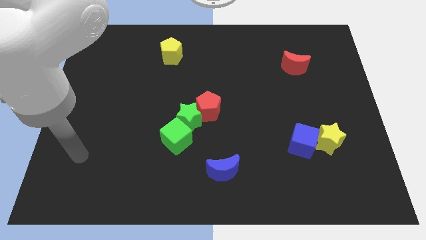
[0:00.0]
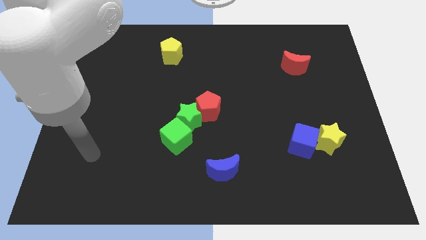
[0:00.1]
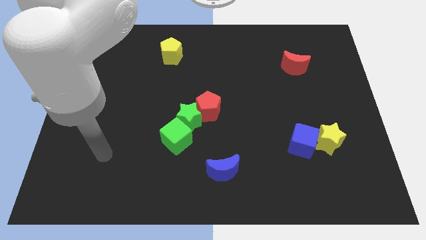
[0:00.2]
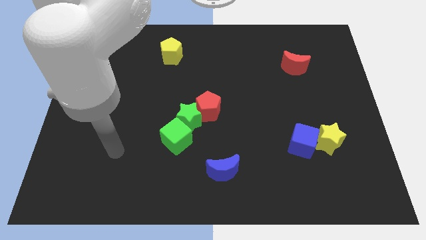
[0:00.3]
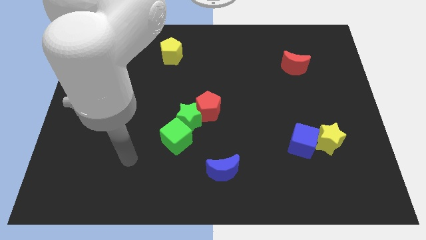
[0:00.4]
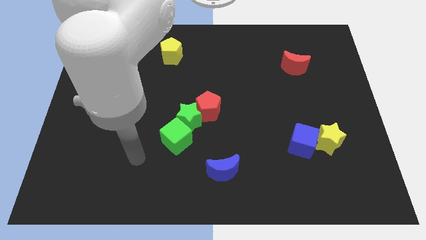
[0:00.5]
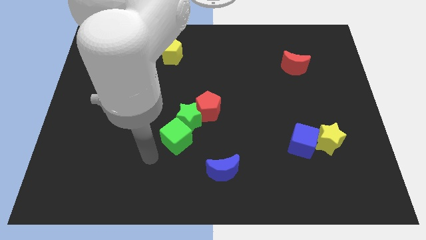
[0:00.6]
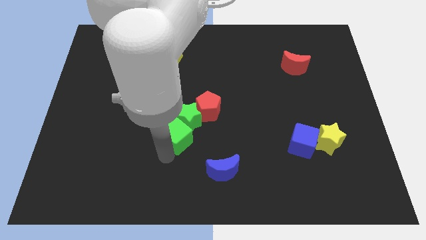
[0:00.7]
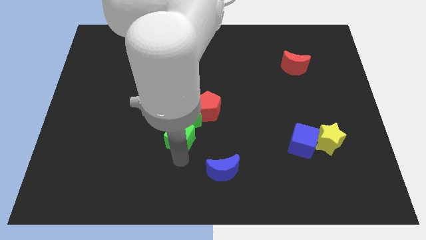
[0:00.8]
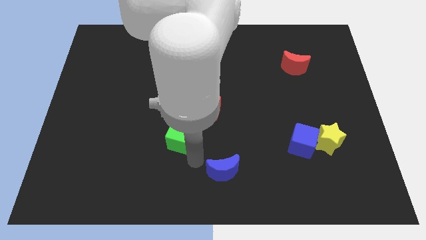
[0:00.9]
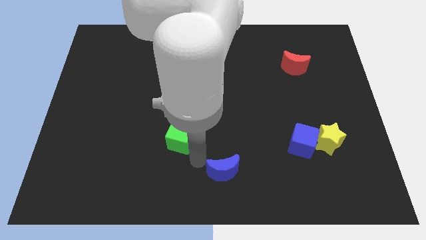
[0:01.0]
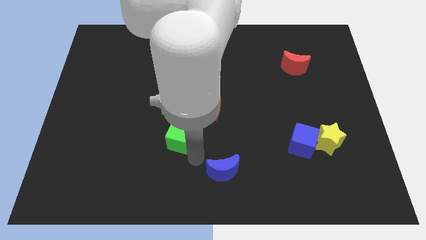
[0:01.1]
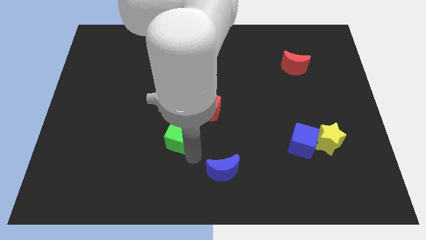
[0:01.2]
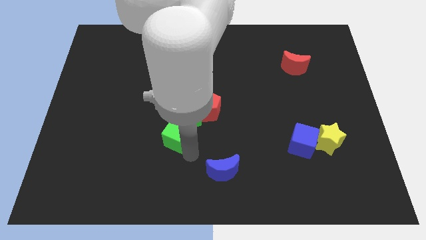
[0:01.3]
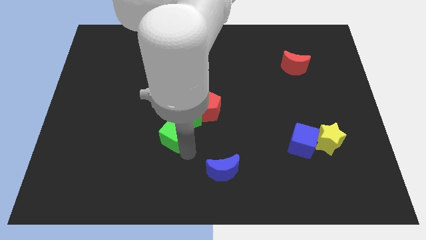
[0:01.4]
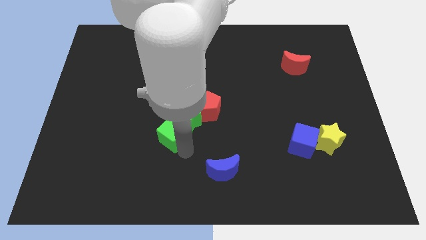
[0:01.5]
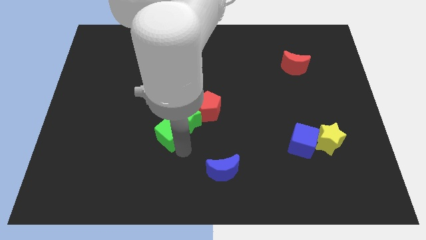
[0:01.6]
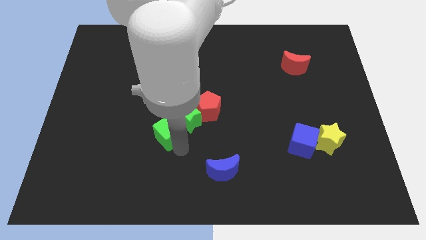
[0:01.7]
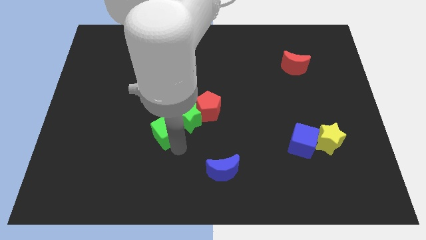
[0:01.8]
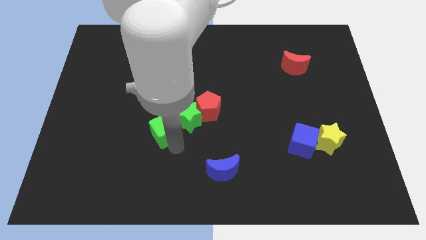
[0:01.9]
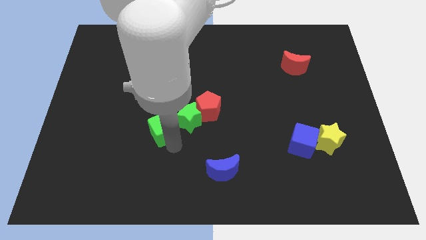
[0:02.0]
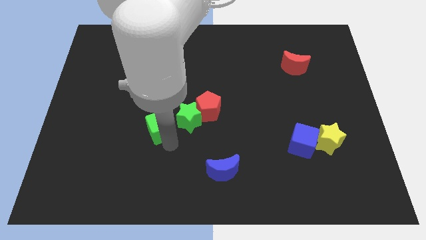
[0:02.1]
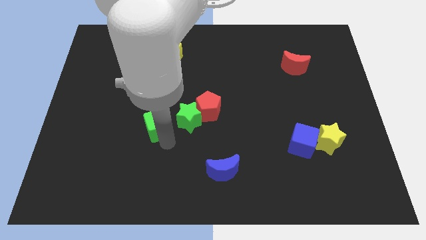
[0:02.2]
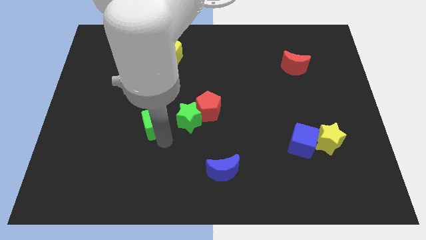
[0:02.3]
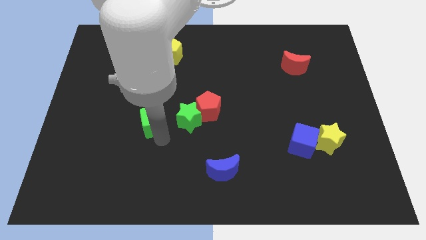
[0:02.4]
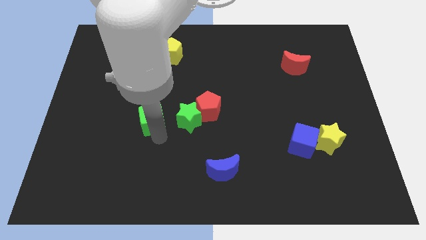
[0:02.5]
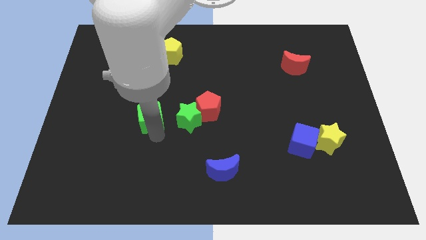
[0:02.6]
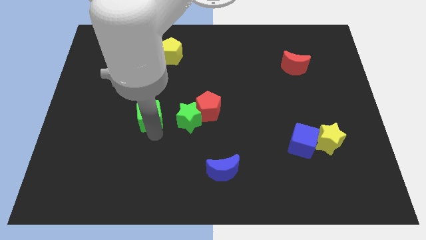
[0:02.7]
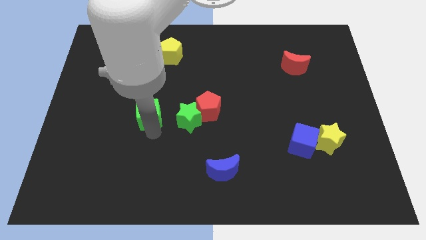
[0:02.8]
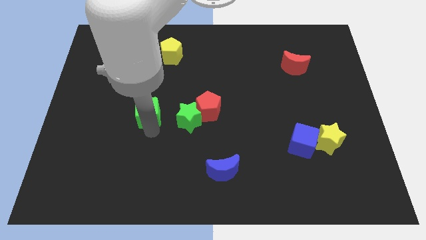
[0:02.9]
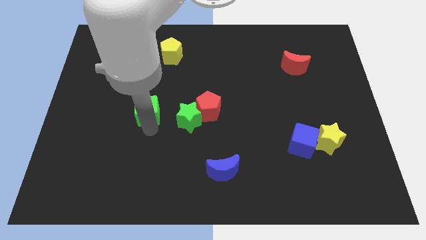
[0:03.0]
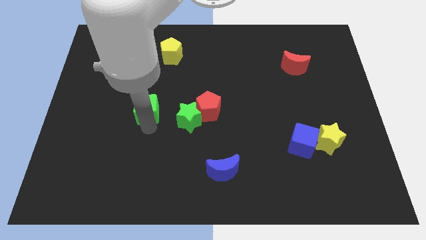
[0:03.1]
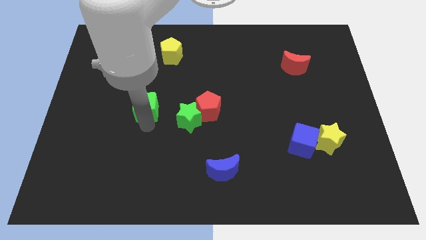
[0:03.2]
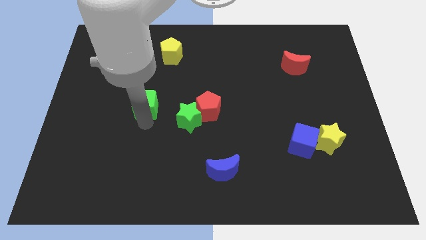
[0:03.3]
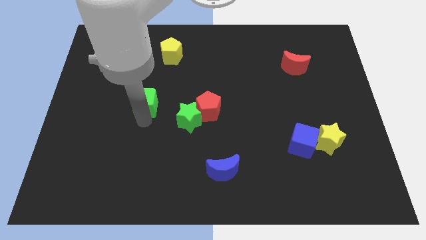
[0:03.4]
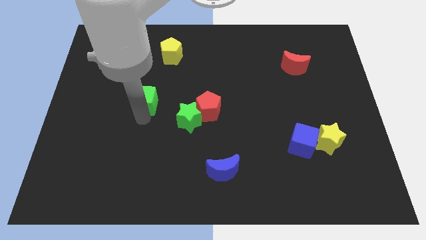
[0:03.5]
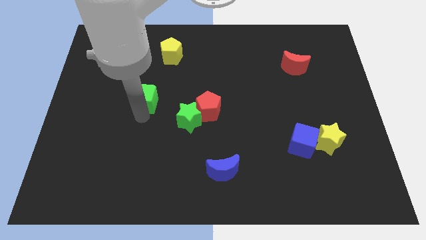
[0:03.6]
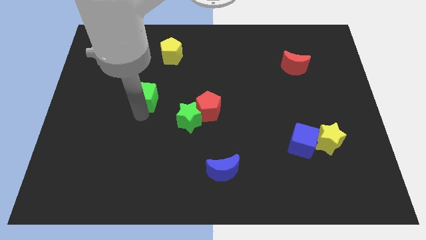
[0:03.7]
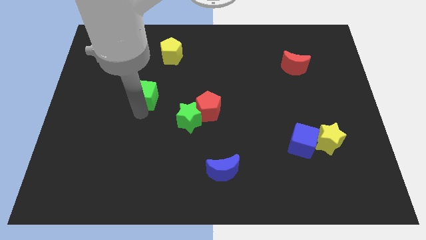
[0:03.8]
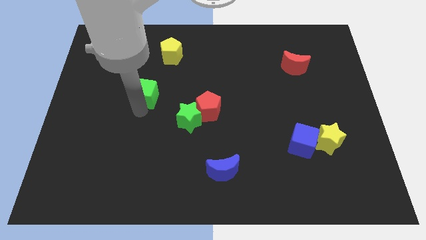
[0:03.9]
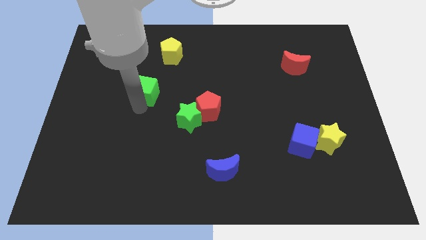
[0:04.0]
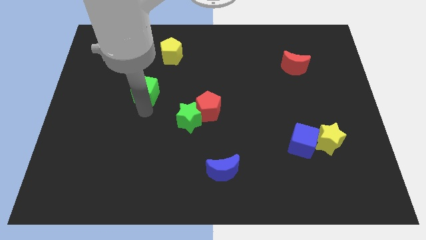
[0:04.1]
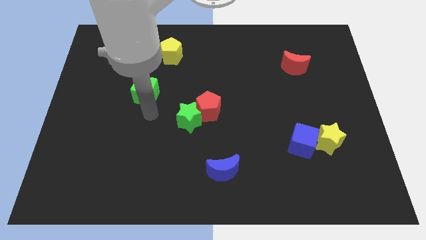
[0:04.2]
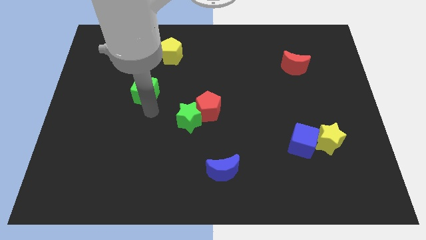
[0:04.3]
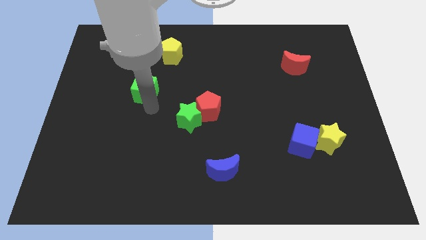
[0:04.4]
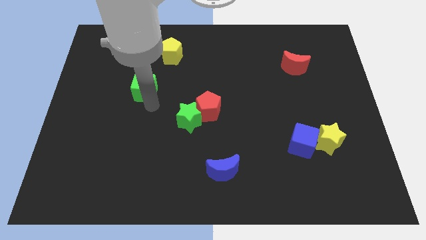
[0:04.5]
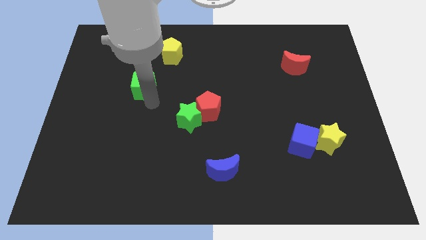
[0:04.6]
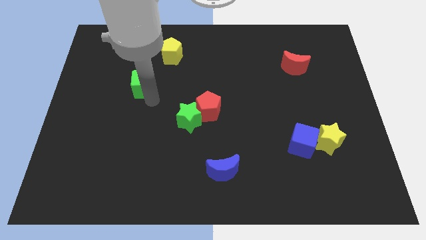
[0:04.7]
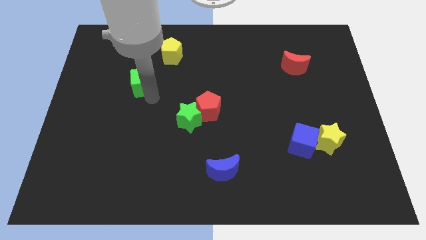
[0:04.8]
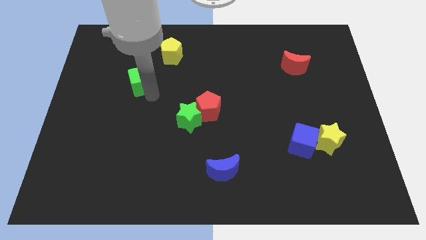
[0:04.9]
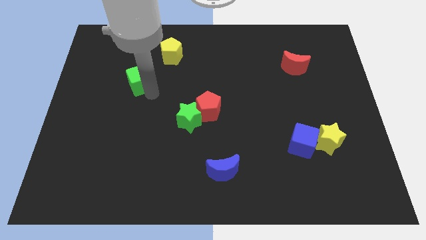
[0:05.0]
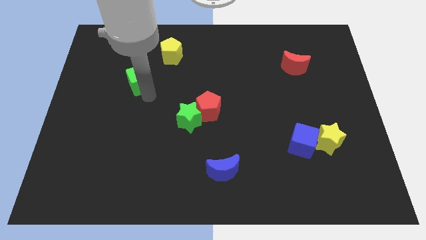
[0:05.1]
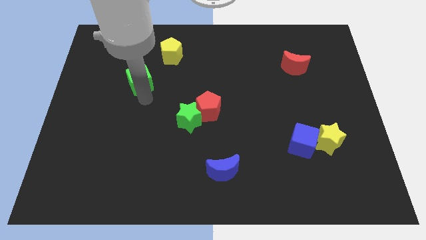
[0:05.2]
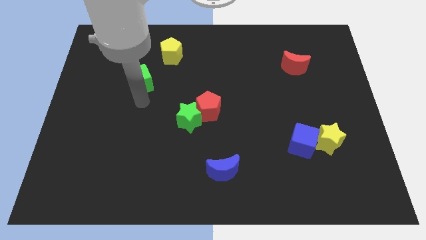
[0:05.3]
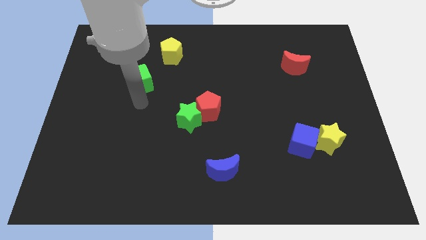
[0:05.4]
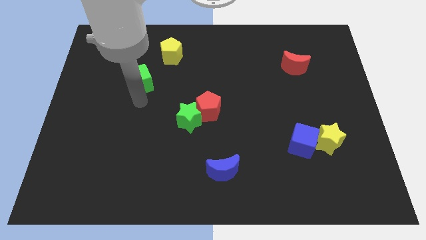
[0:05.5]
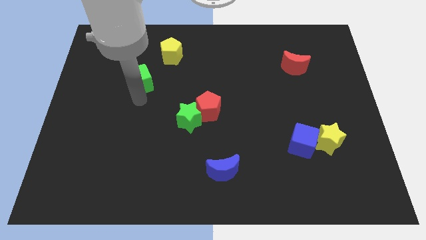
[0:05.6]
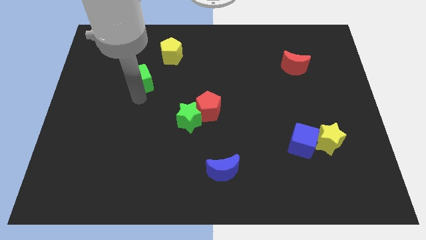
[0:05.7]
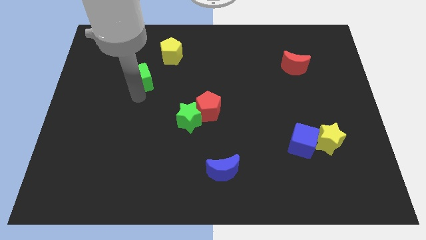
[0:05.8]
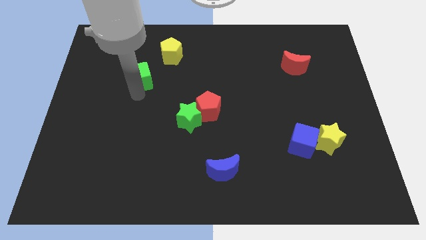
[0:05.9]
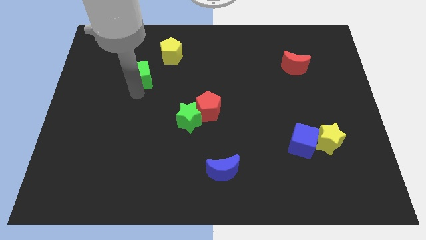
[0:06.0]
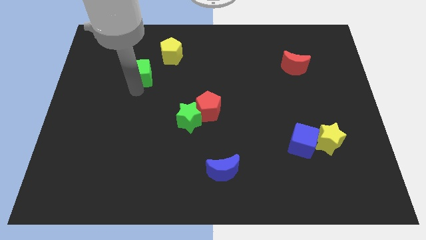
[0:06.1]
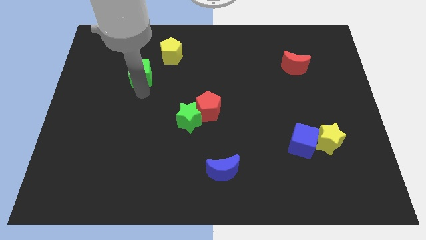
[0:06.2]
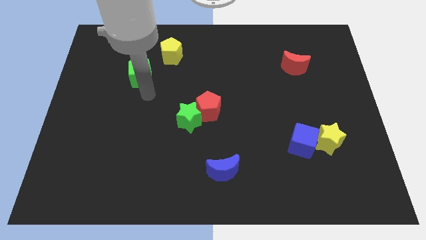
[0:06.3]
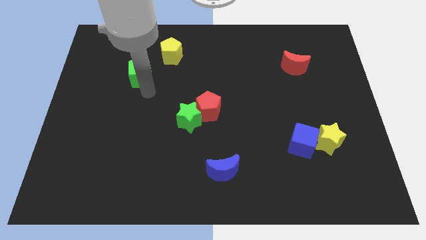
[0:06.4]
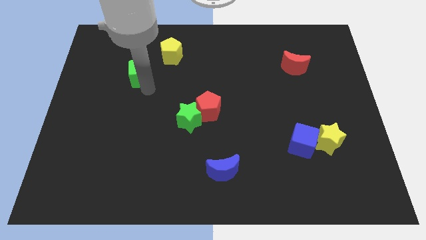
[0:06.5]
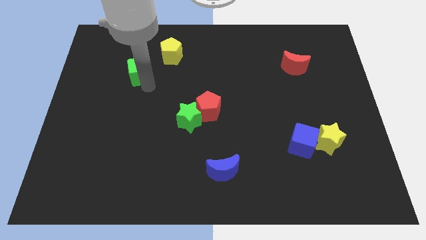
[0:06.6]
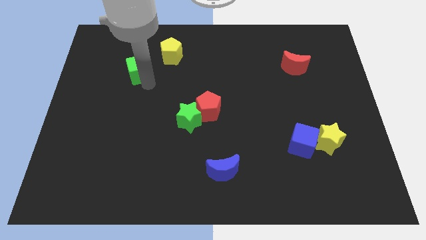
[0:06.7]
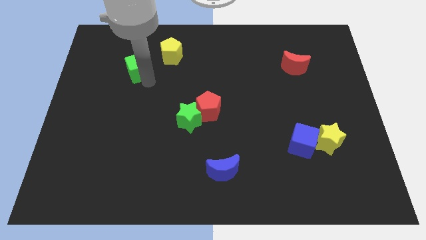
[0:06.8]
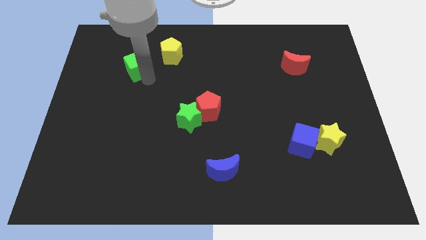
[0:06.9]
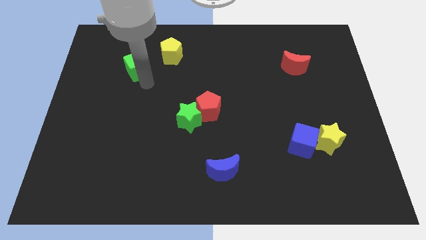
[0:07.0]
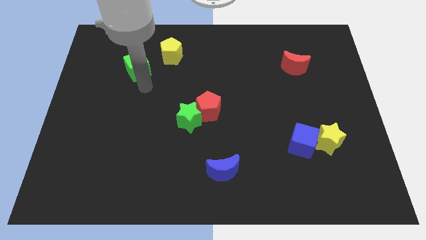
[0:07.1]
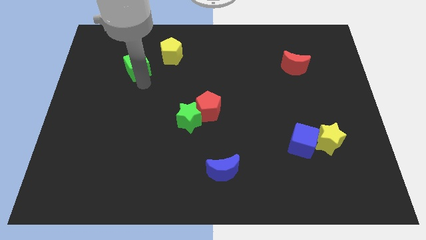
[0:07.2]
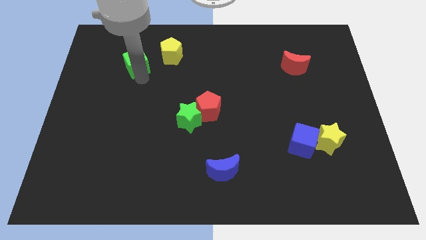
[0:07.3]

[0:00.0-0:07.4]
push the green cube just left of the yellow pentagon
